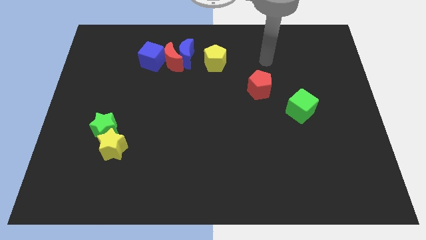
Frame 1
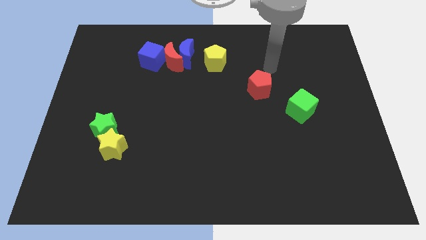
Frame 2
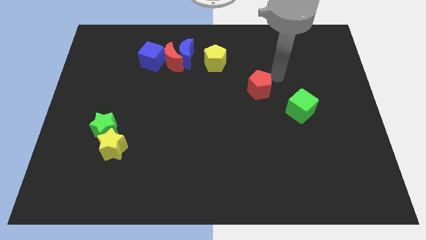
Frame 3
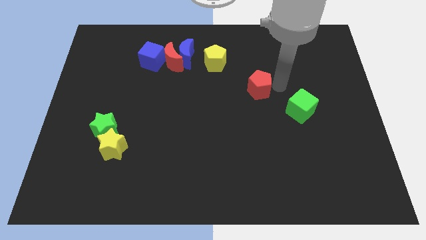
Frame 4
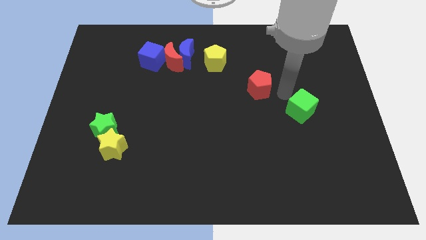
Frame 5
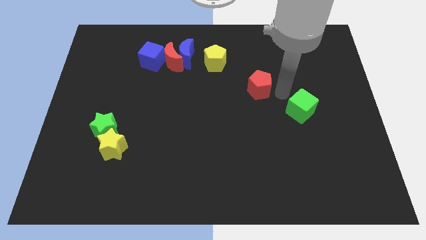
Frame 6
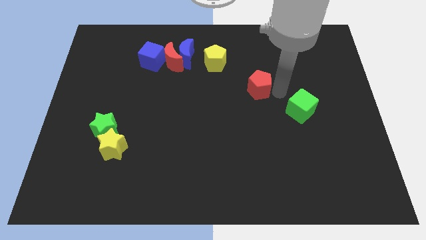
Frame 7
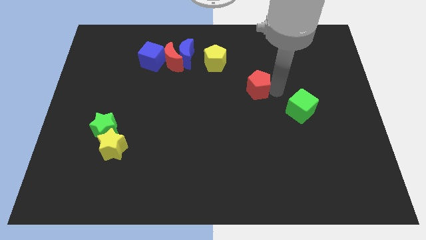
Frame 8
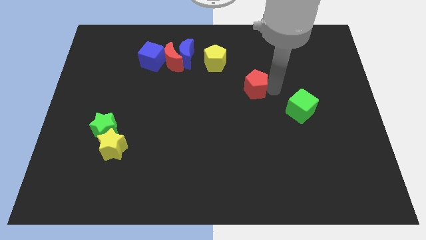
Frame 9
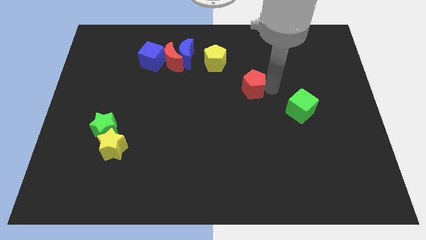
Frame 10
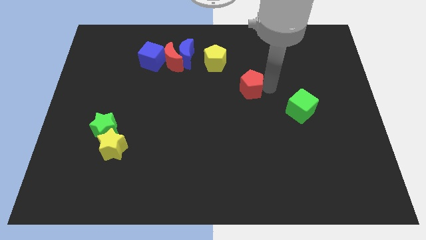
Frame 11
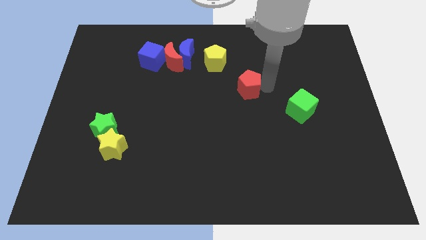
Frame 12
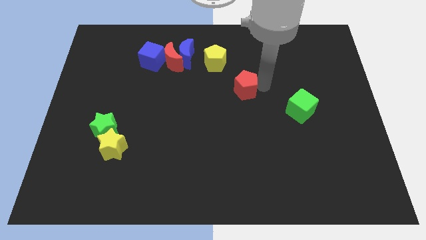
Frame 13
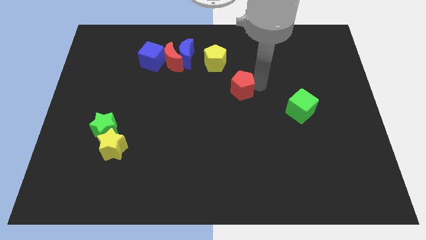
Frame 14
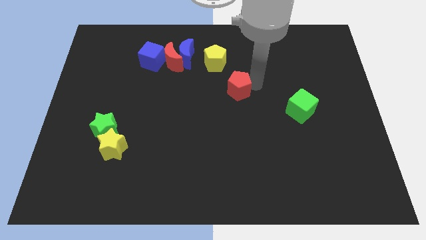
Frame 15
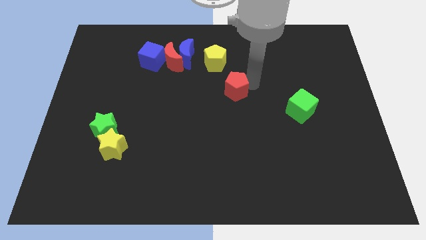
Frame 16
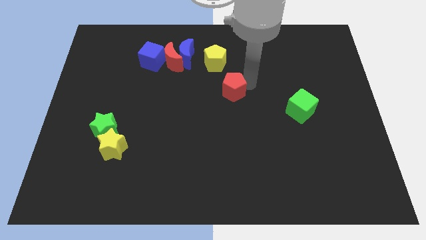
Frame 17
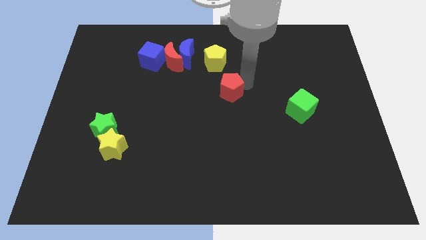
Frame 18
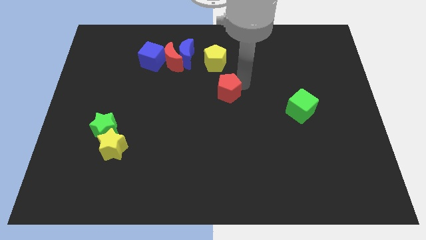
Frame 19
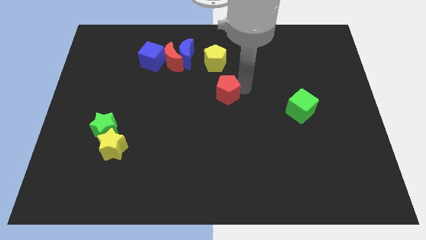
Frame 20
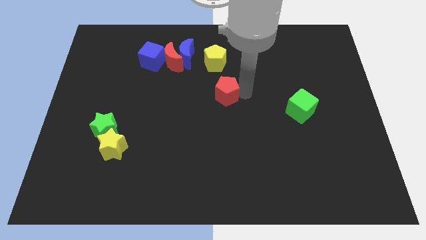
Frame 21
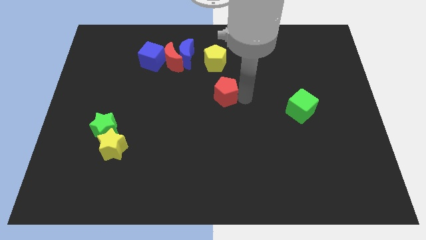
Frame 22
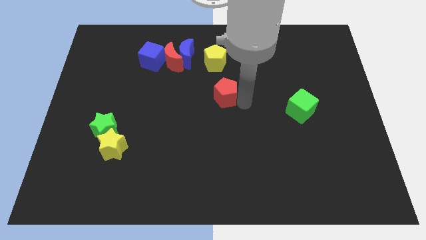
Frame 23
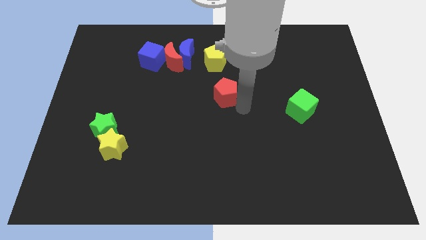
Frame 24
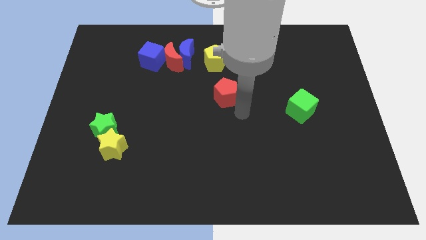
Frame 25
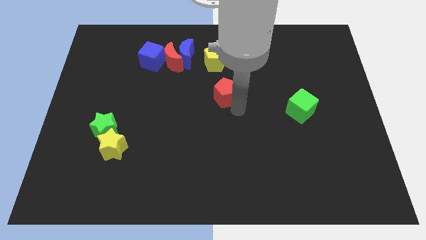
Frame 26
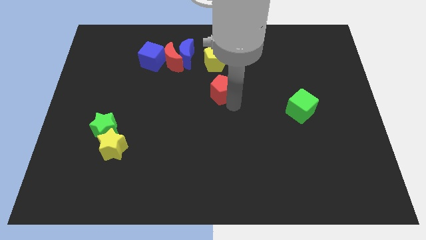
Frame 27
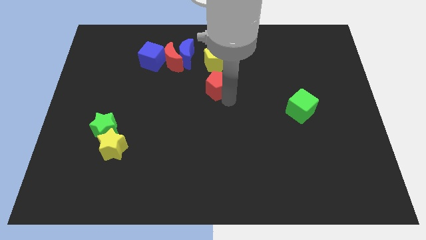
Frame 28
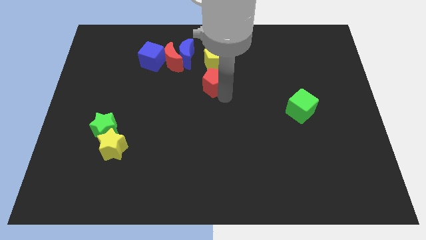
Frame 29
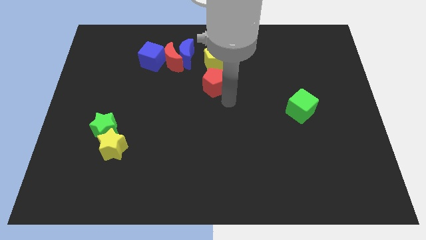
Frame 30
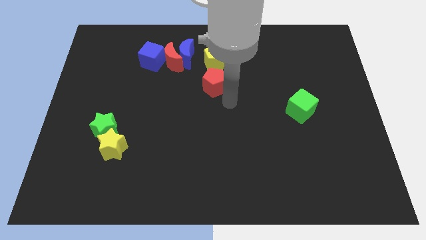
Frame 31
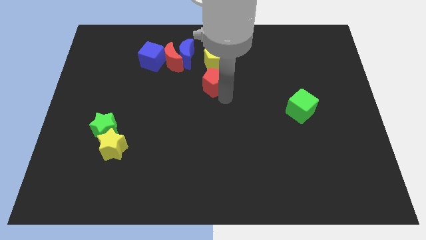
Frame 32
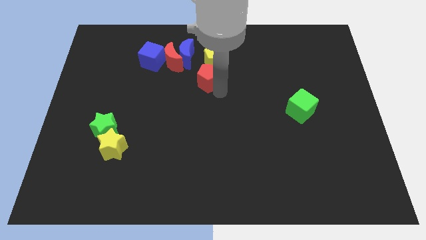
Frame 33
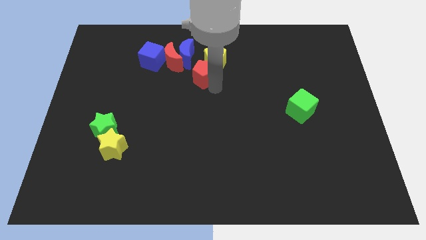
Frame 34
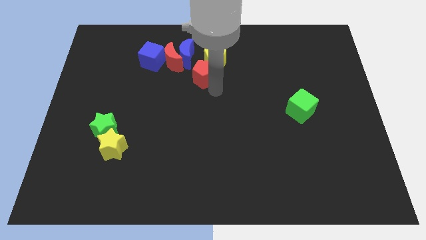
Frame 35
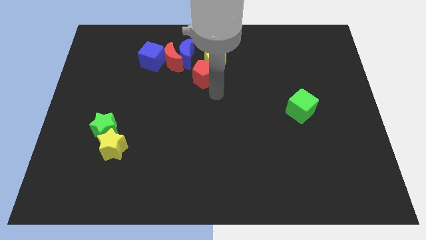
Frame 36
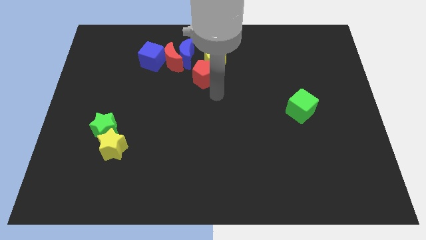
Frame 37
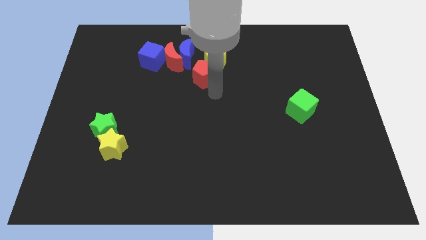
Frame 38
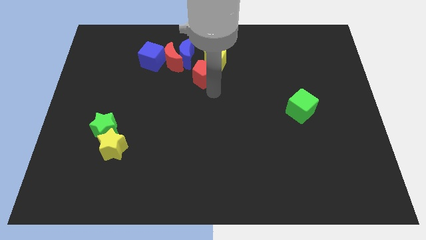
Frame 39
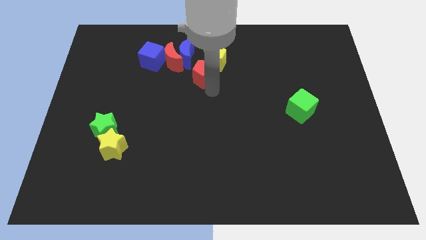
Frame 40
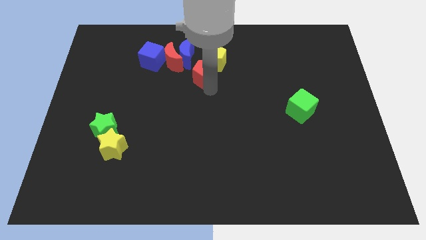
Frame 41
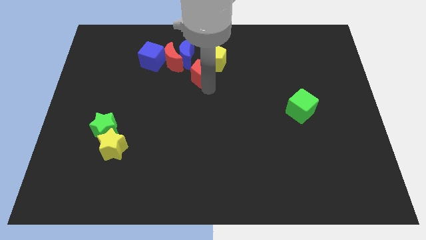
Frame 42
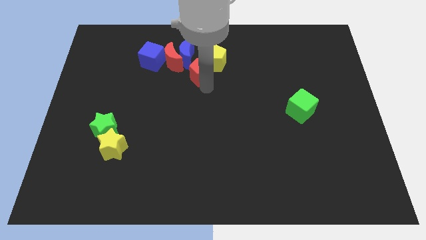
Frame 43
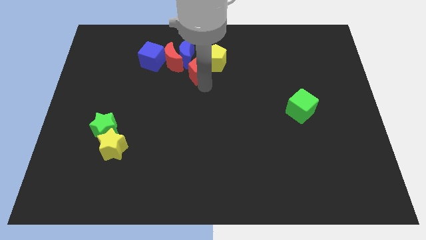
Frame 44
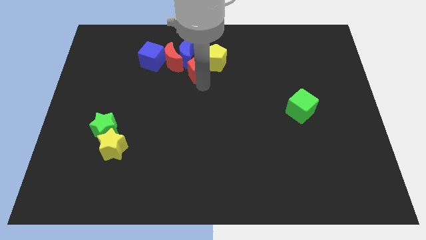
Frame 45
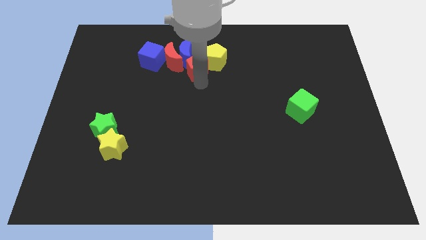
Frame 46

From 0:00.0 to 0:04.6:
slide the red pentagon next to the blue moon

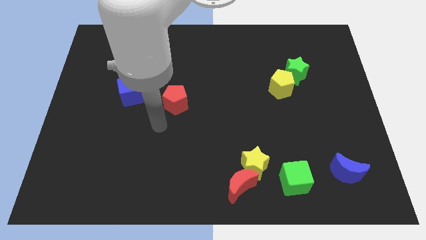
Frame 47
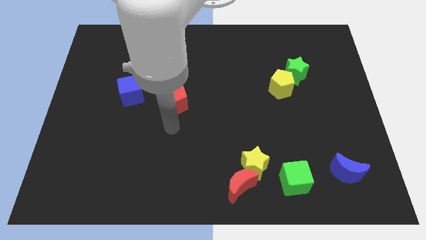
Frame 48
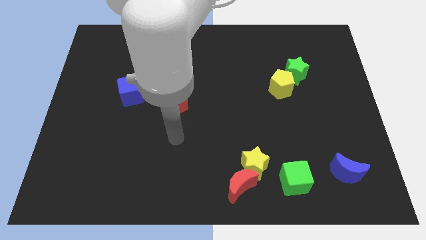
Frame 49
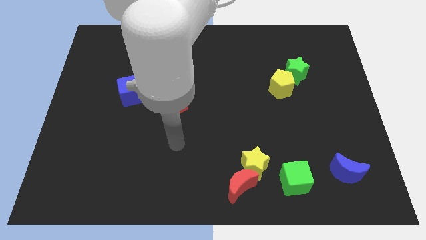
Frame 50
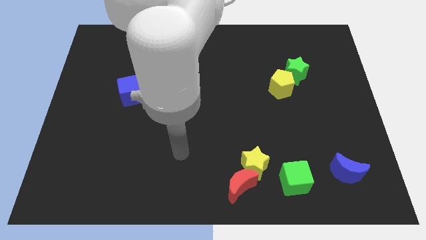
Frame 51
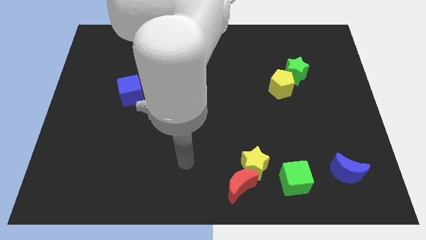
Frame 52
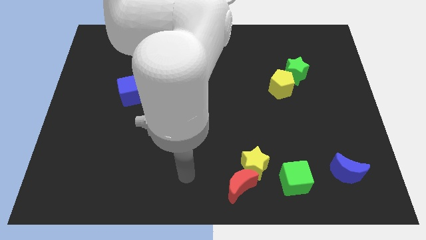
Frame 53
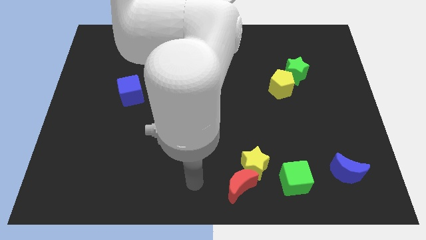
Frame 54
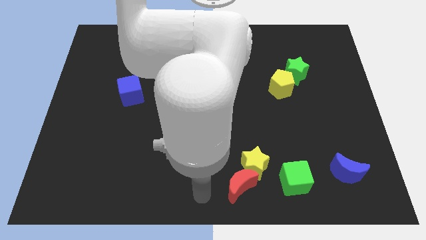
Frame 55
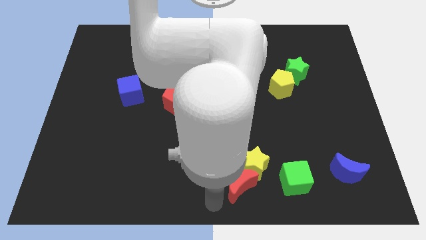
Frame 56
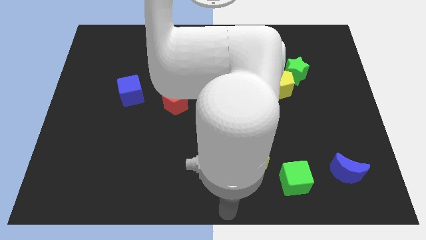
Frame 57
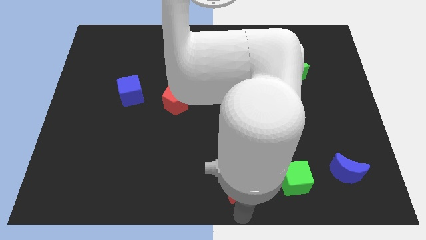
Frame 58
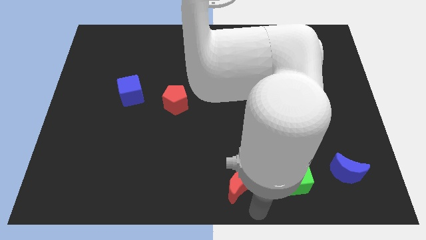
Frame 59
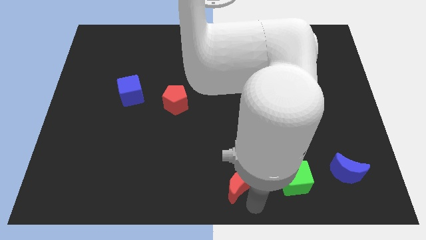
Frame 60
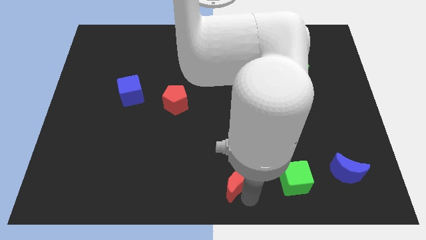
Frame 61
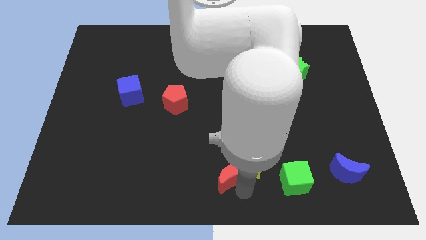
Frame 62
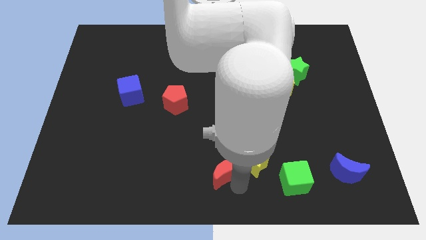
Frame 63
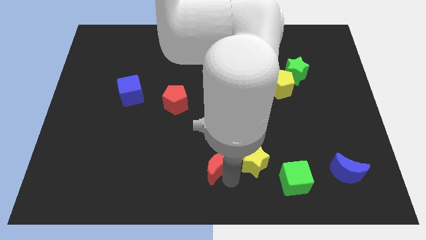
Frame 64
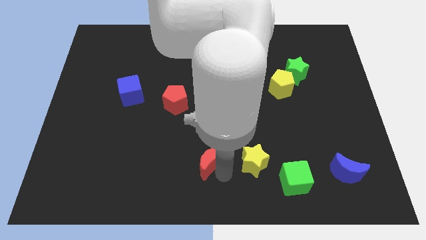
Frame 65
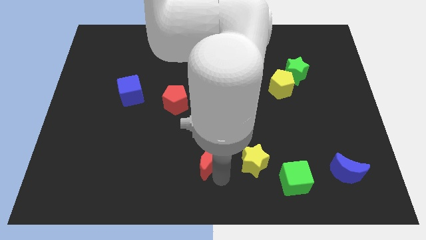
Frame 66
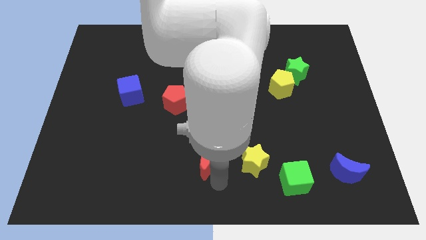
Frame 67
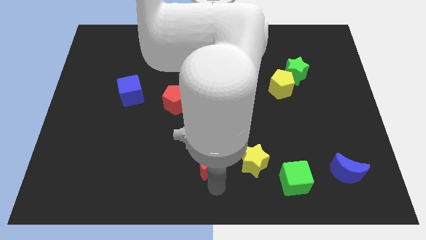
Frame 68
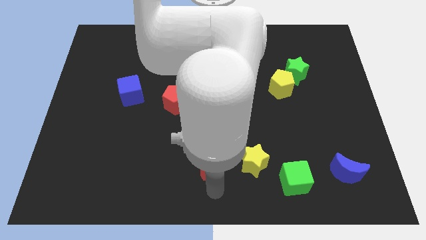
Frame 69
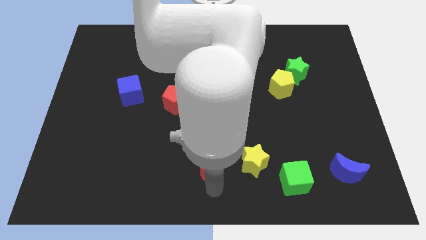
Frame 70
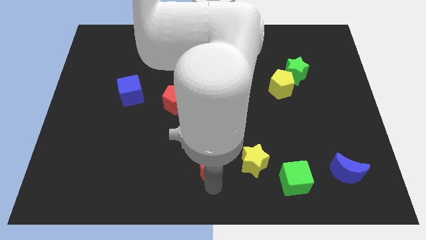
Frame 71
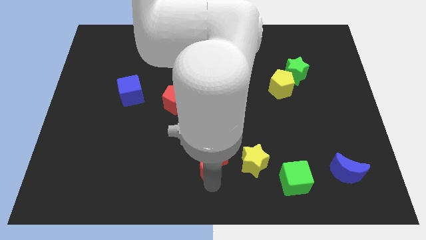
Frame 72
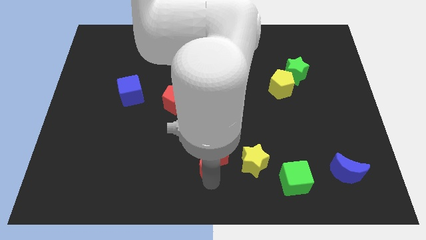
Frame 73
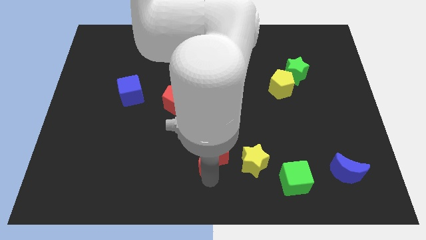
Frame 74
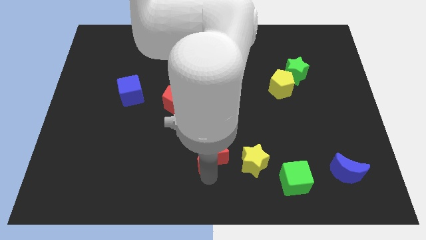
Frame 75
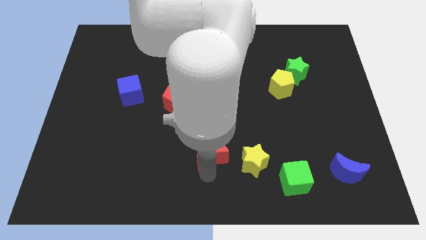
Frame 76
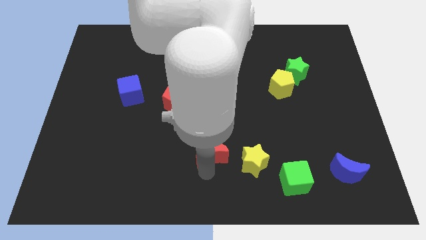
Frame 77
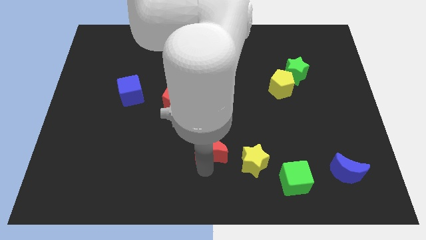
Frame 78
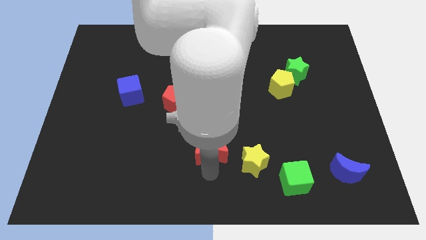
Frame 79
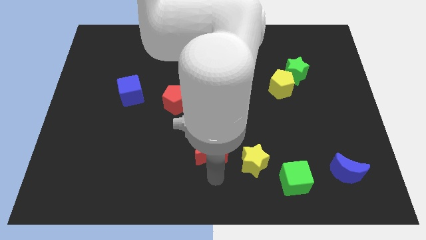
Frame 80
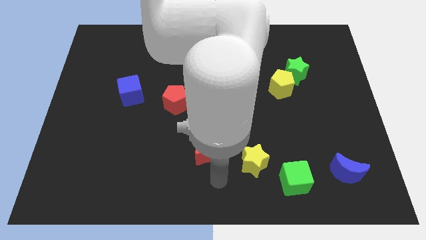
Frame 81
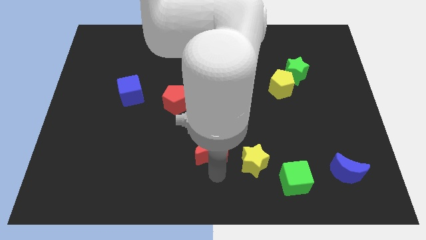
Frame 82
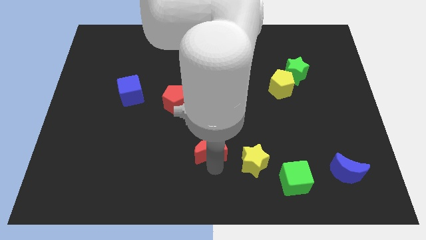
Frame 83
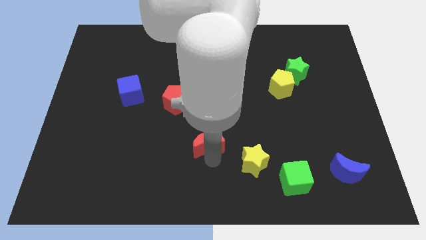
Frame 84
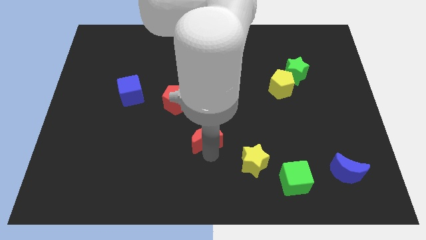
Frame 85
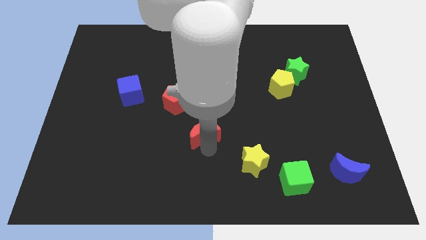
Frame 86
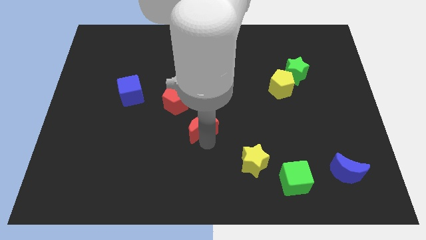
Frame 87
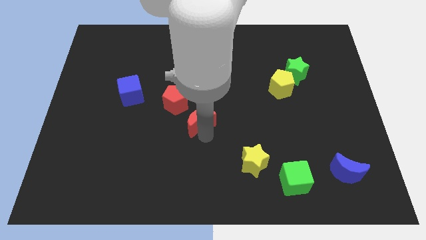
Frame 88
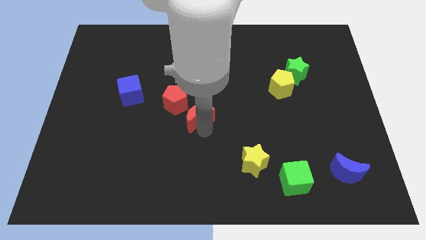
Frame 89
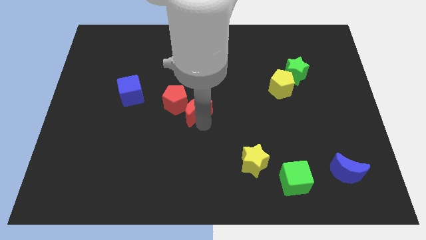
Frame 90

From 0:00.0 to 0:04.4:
move the red moon to the red pentagon
